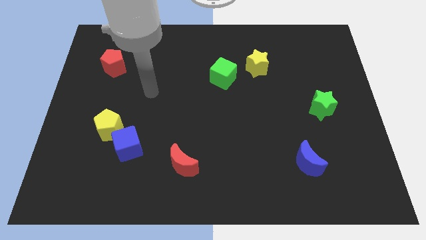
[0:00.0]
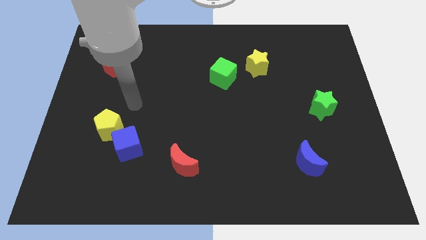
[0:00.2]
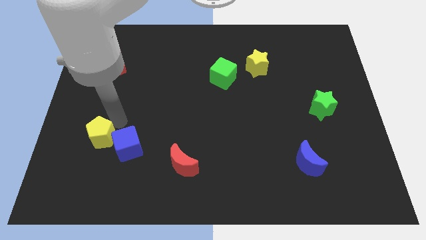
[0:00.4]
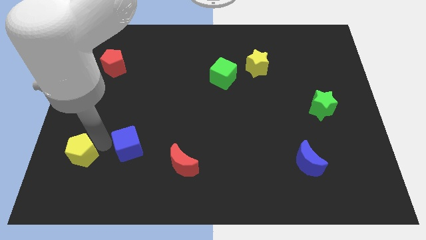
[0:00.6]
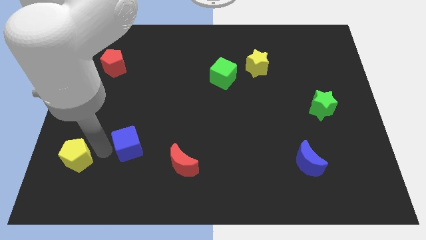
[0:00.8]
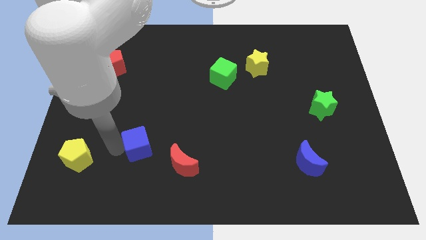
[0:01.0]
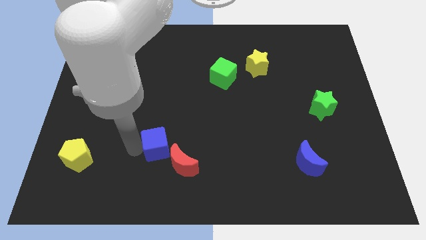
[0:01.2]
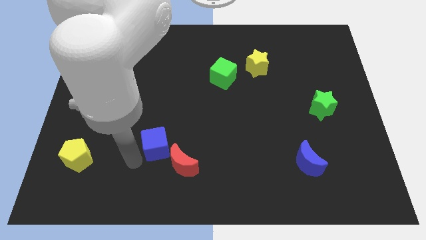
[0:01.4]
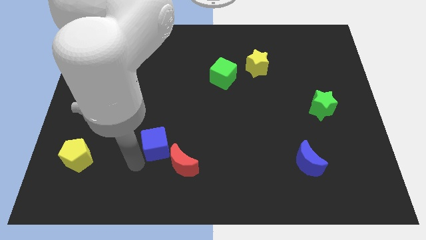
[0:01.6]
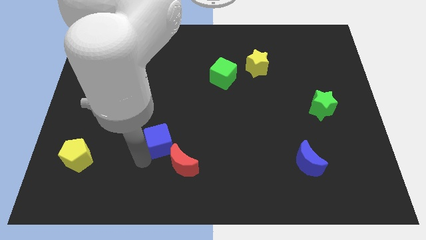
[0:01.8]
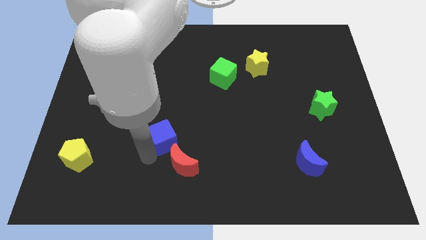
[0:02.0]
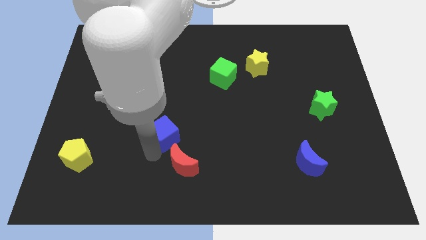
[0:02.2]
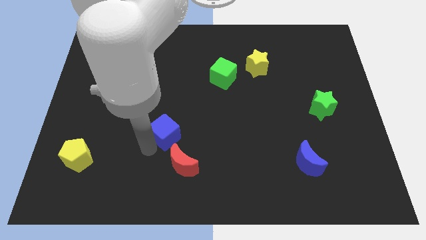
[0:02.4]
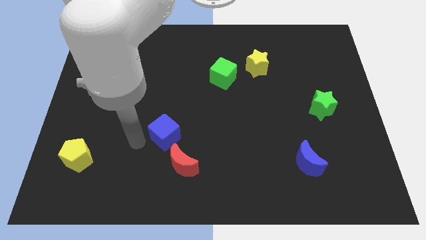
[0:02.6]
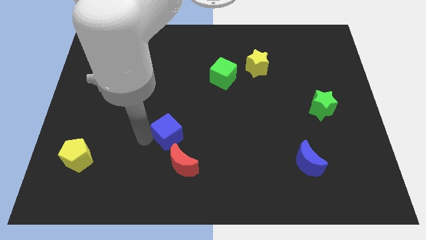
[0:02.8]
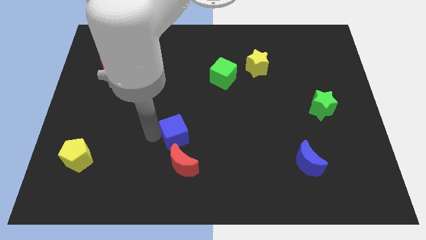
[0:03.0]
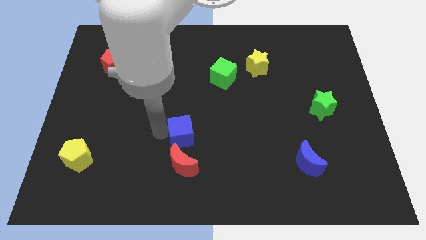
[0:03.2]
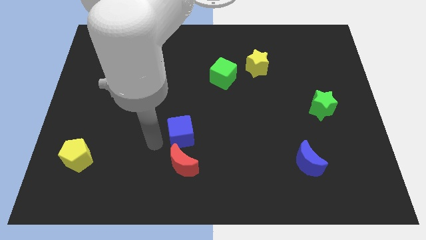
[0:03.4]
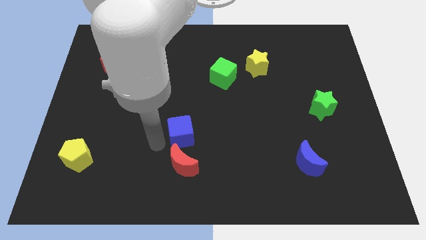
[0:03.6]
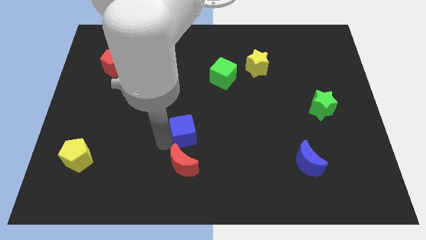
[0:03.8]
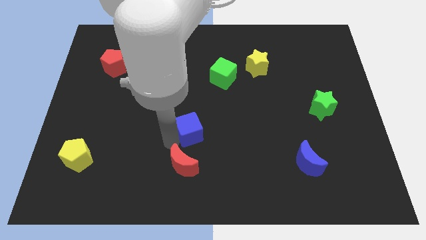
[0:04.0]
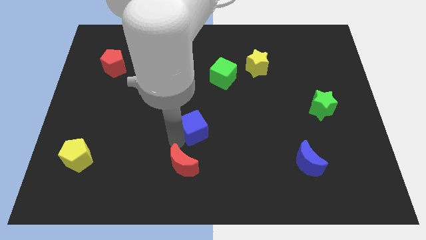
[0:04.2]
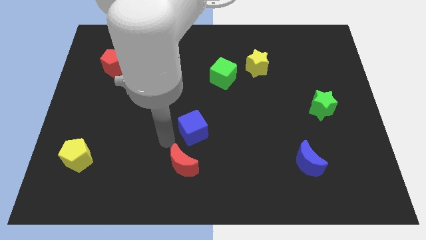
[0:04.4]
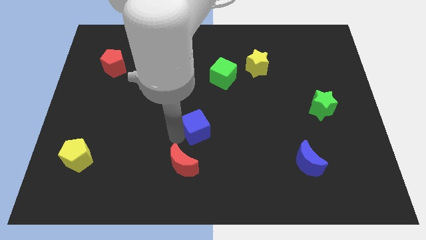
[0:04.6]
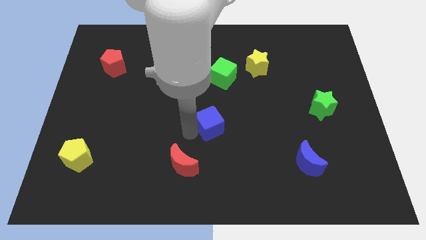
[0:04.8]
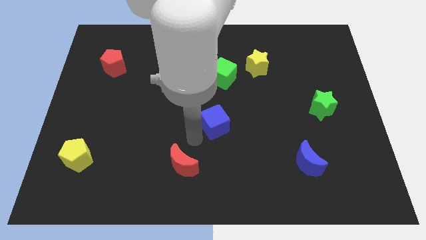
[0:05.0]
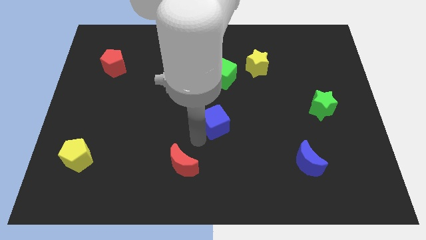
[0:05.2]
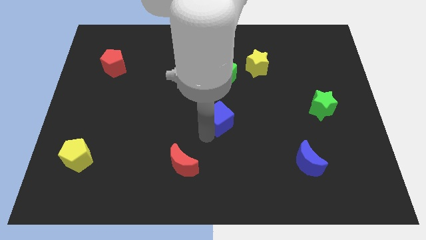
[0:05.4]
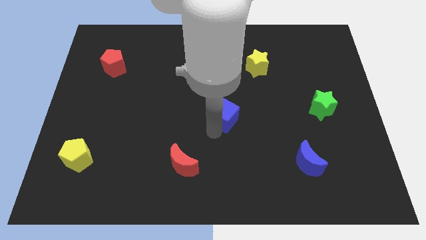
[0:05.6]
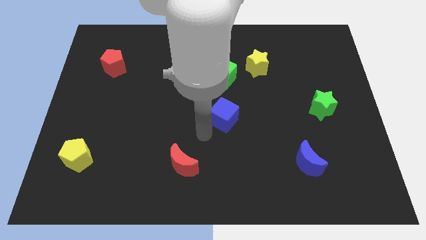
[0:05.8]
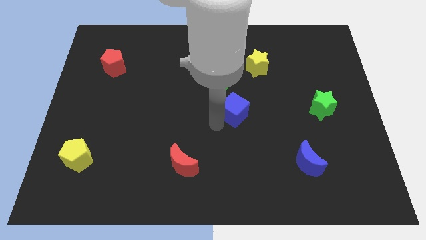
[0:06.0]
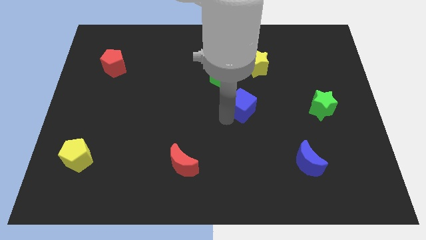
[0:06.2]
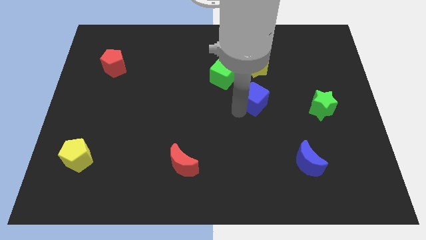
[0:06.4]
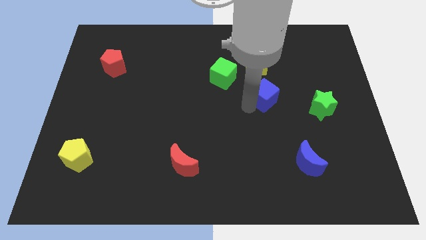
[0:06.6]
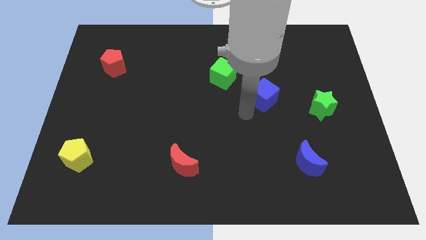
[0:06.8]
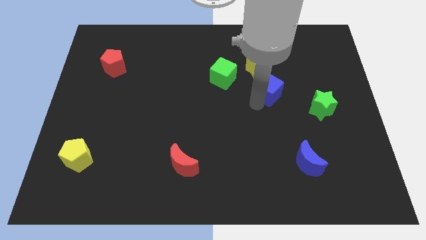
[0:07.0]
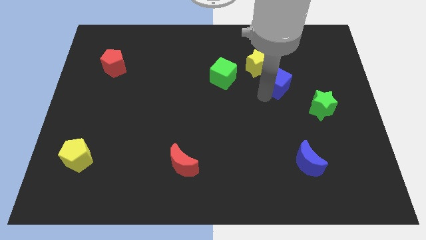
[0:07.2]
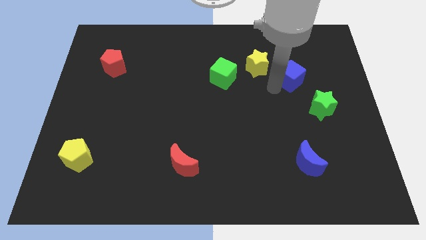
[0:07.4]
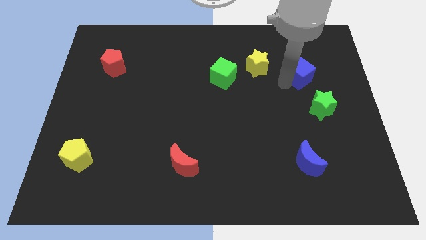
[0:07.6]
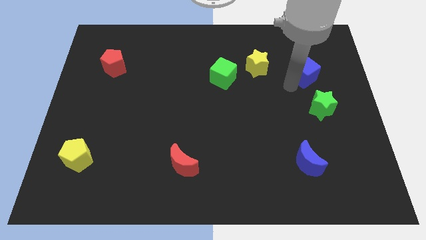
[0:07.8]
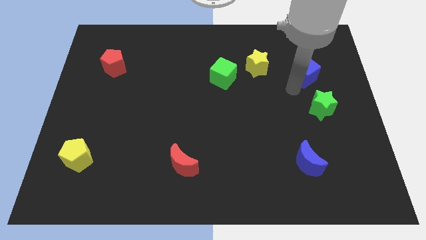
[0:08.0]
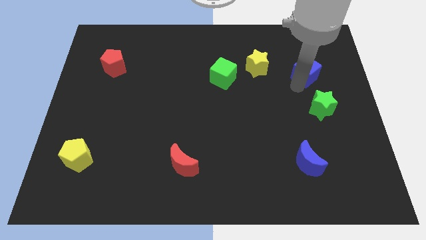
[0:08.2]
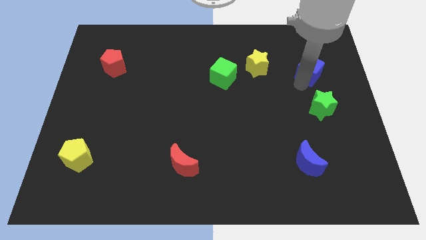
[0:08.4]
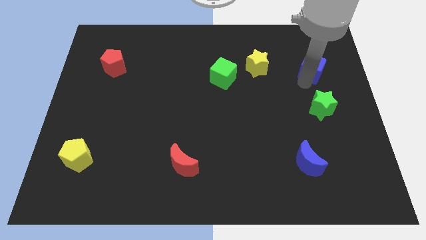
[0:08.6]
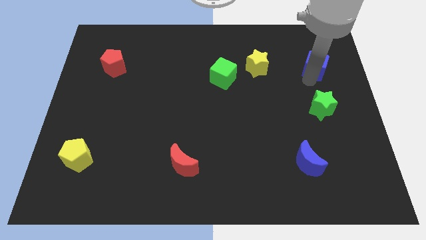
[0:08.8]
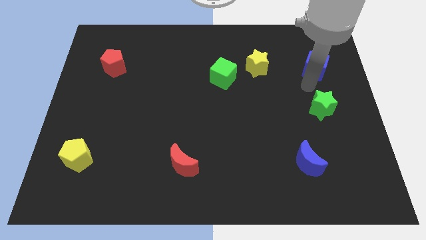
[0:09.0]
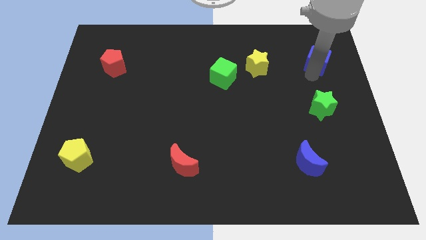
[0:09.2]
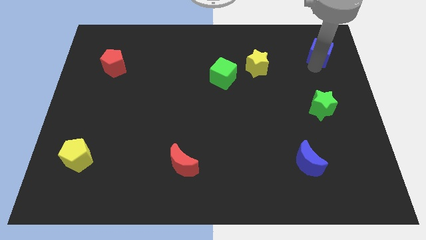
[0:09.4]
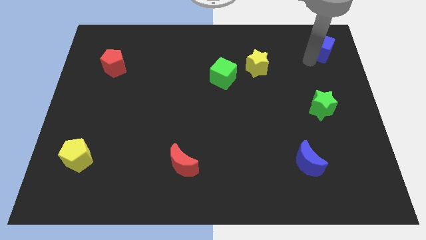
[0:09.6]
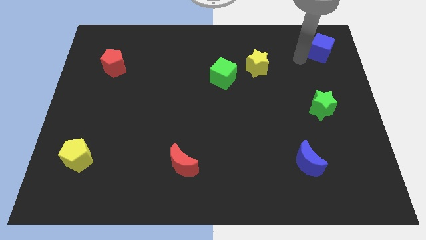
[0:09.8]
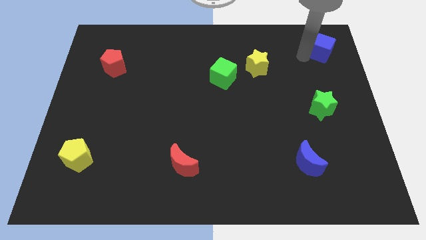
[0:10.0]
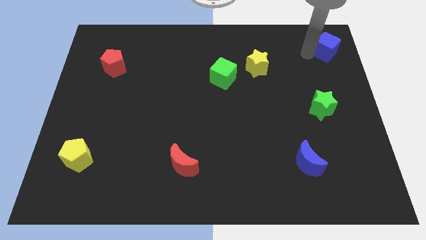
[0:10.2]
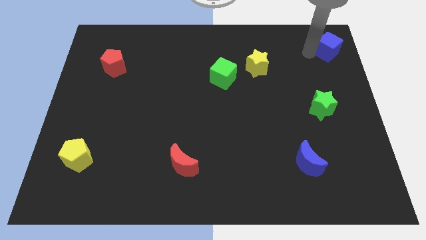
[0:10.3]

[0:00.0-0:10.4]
move the blue cube to the top right
